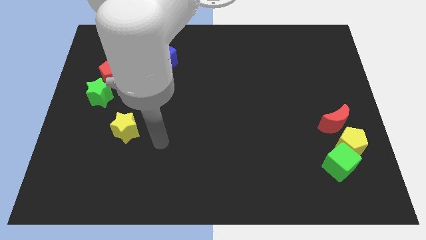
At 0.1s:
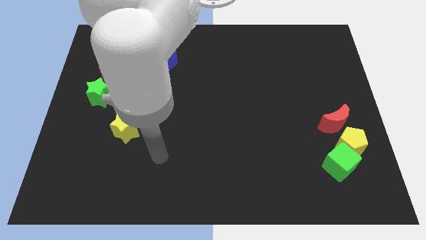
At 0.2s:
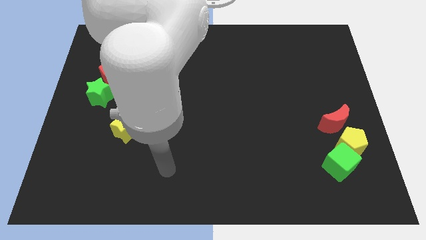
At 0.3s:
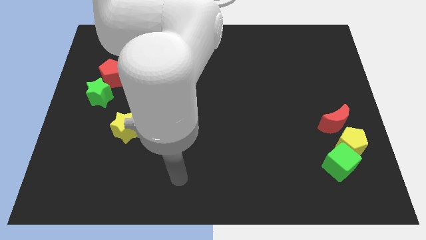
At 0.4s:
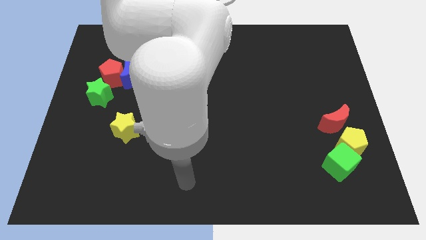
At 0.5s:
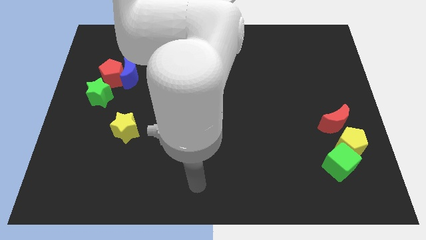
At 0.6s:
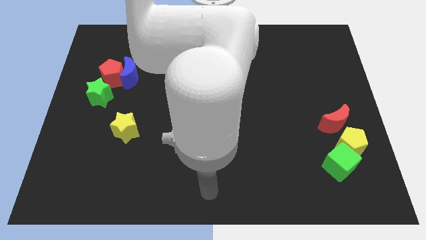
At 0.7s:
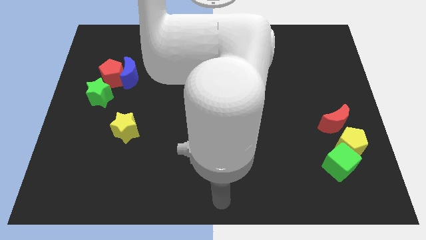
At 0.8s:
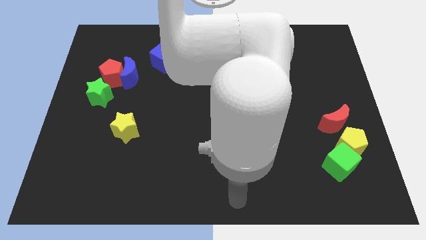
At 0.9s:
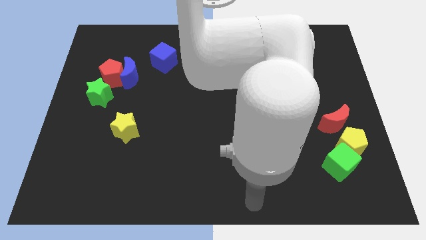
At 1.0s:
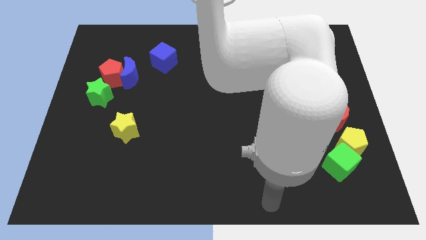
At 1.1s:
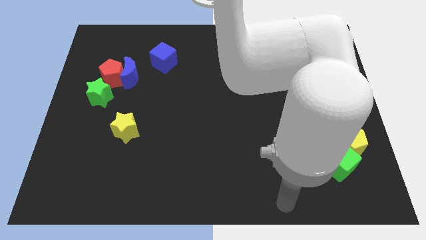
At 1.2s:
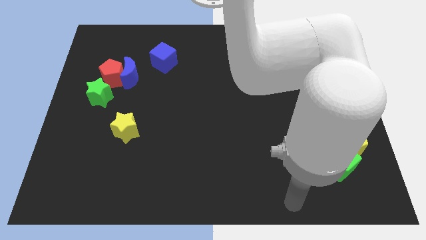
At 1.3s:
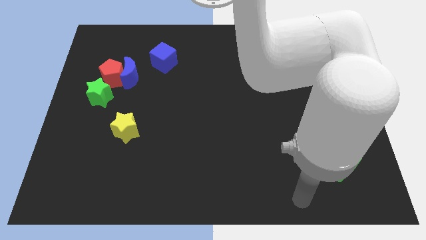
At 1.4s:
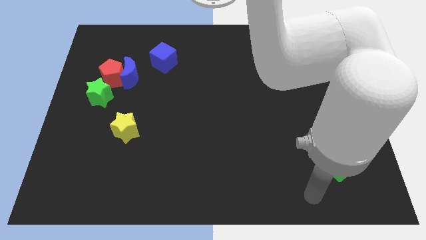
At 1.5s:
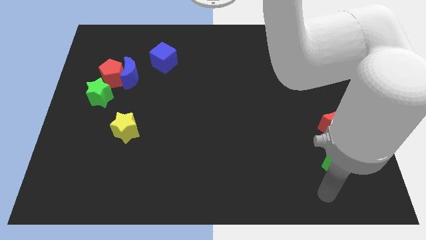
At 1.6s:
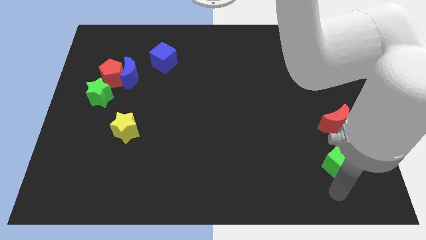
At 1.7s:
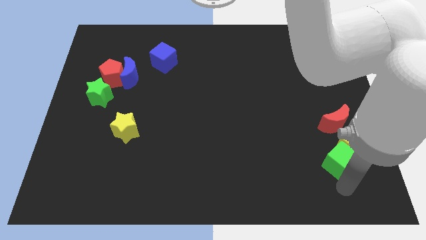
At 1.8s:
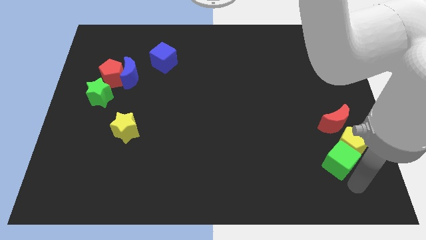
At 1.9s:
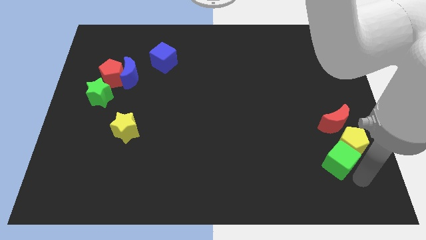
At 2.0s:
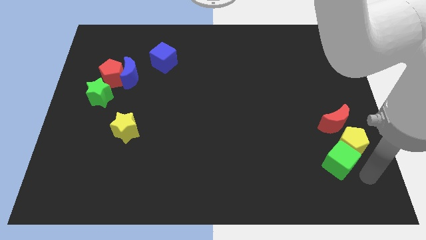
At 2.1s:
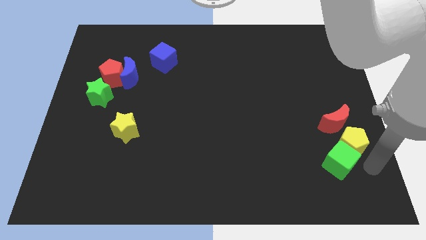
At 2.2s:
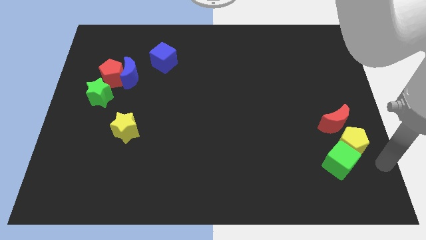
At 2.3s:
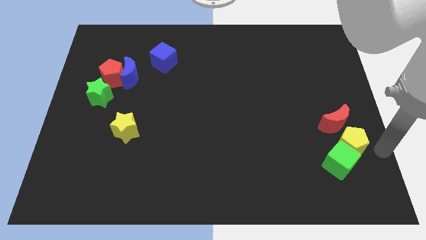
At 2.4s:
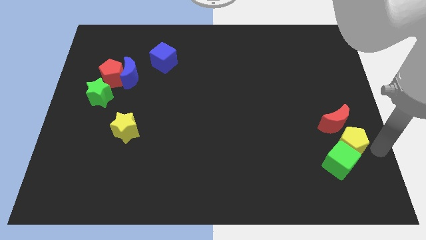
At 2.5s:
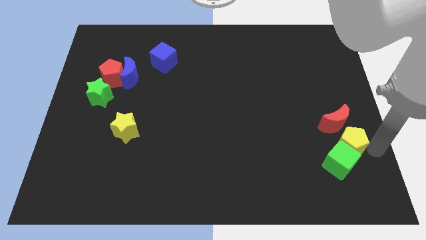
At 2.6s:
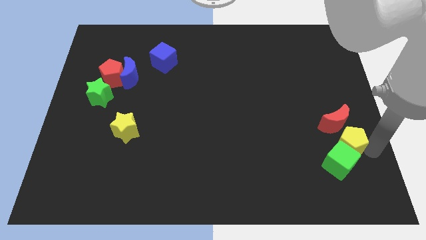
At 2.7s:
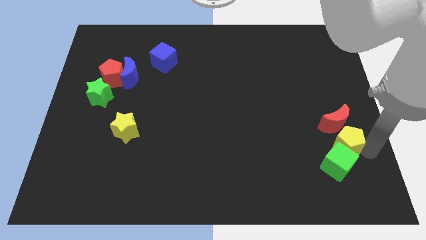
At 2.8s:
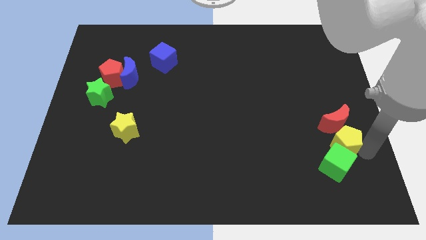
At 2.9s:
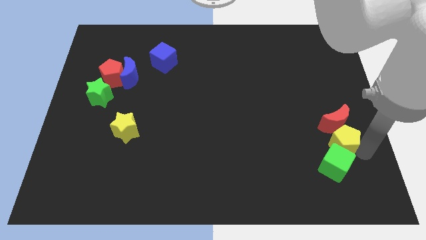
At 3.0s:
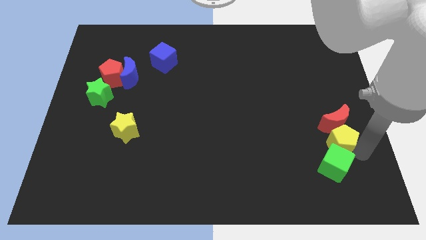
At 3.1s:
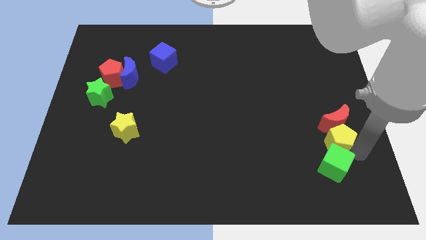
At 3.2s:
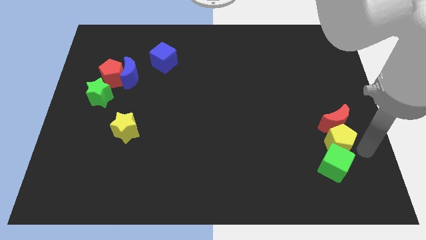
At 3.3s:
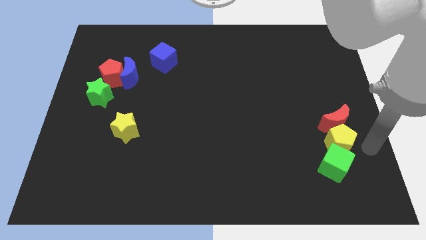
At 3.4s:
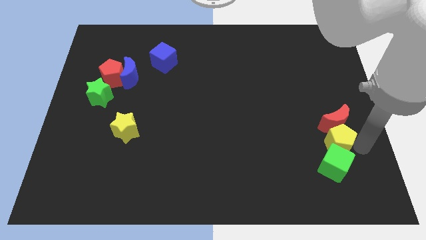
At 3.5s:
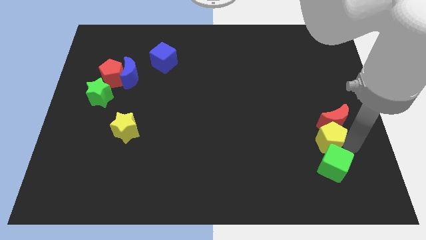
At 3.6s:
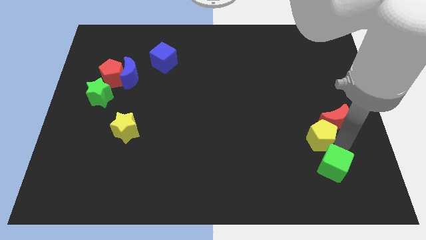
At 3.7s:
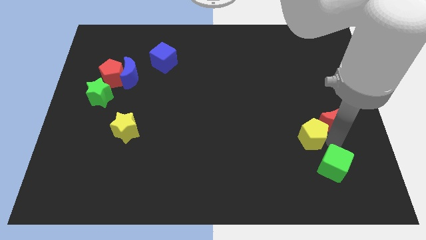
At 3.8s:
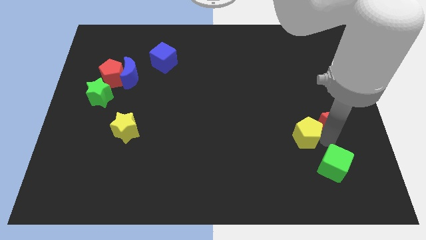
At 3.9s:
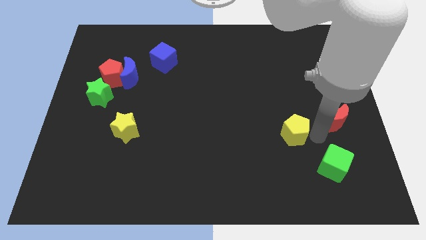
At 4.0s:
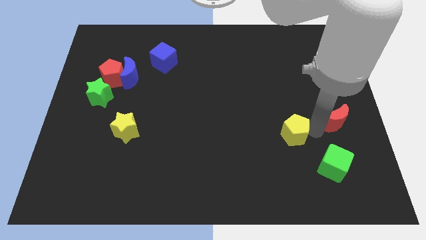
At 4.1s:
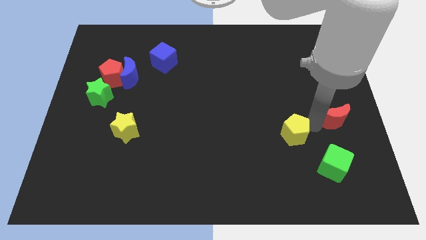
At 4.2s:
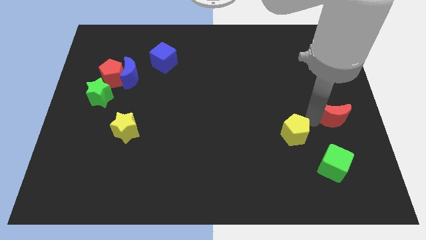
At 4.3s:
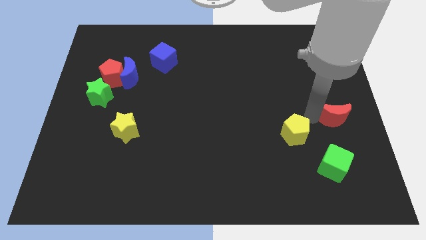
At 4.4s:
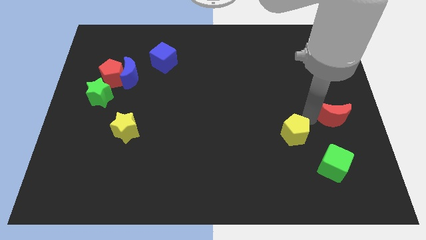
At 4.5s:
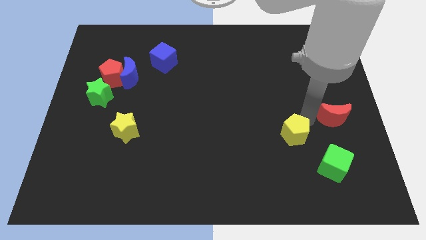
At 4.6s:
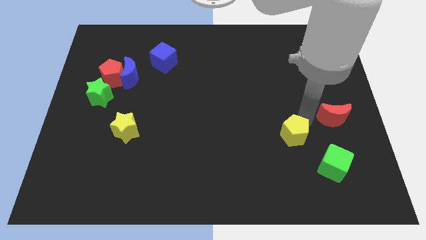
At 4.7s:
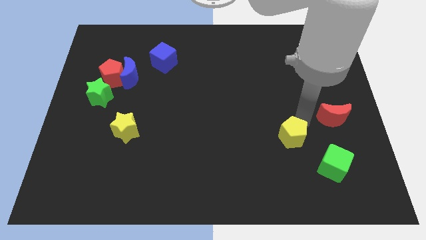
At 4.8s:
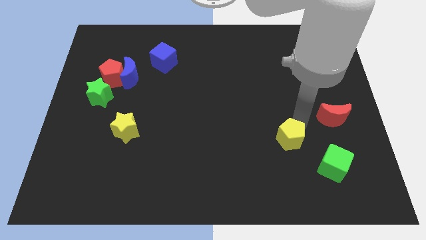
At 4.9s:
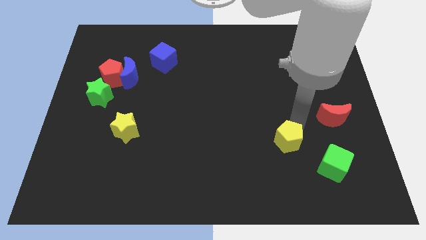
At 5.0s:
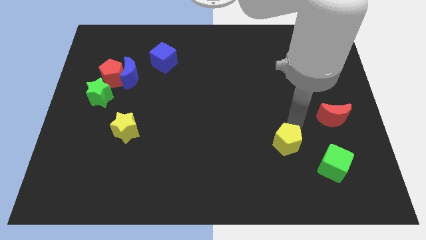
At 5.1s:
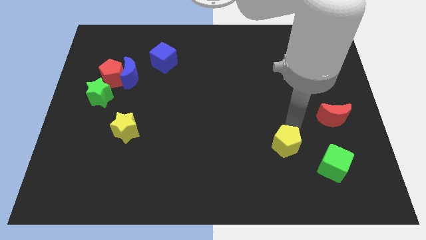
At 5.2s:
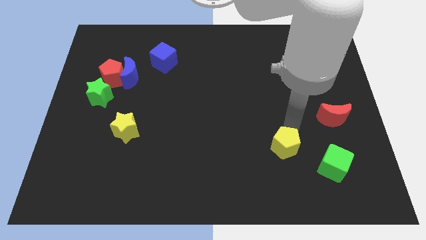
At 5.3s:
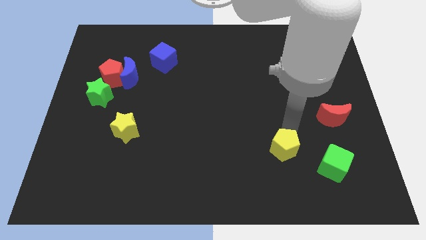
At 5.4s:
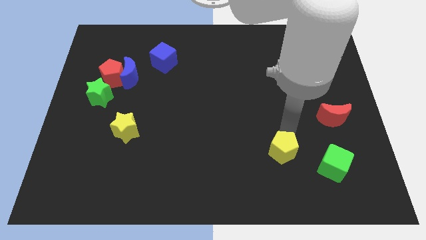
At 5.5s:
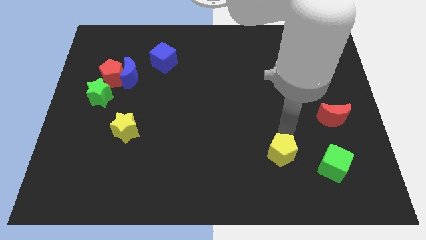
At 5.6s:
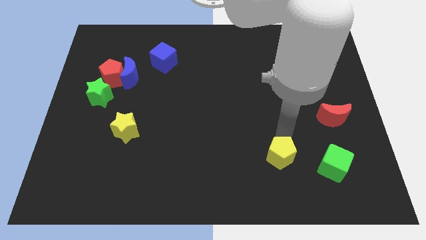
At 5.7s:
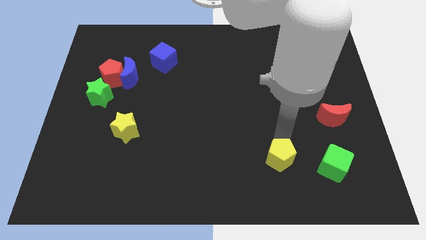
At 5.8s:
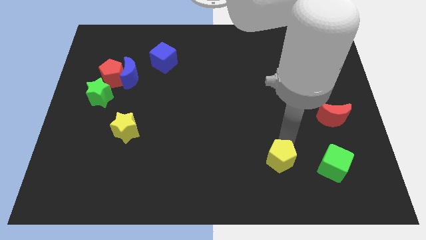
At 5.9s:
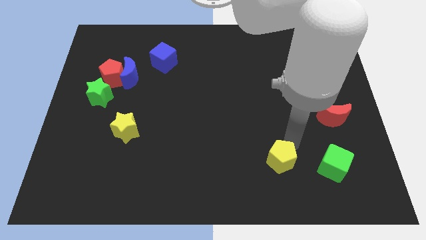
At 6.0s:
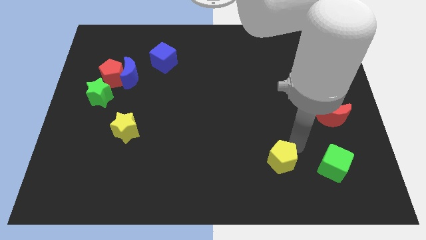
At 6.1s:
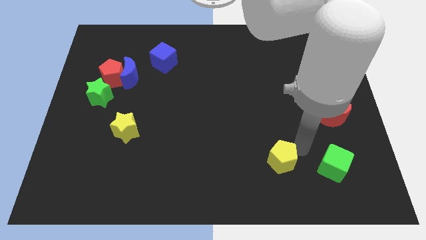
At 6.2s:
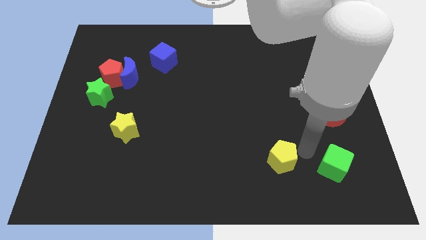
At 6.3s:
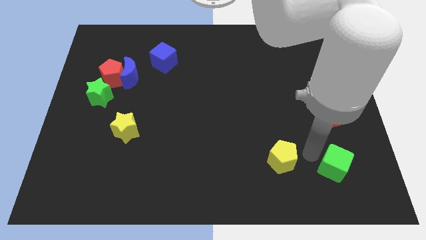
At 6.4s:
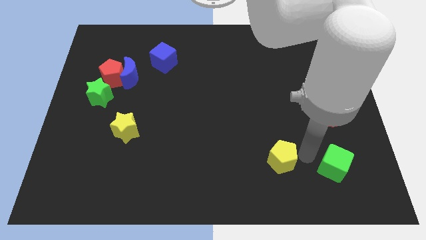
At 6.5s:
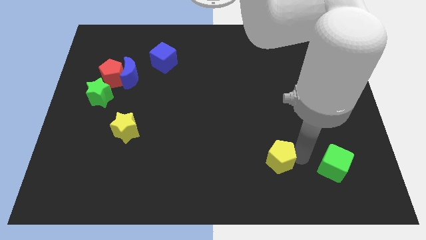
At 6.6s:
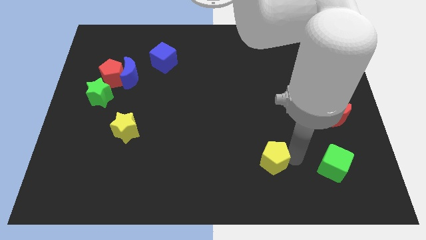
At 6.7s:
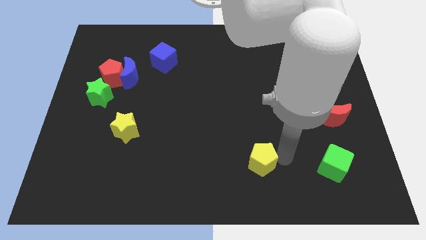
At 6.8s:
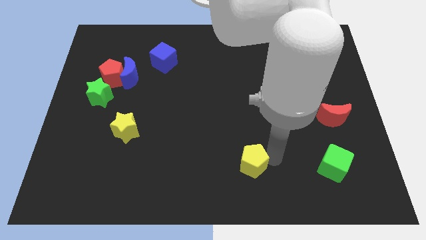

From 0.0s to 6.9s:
slide the yellow pentagon to the bottom
